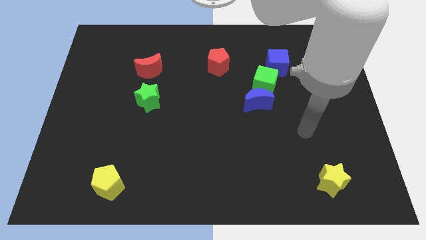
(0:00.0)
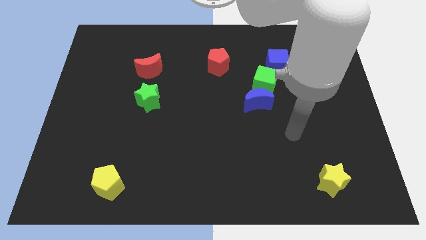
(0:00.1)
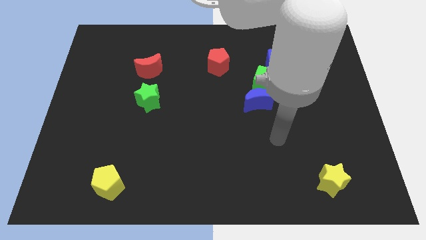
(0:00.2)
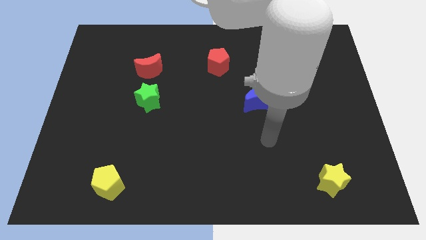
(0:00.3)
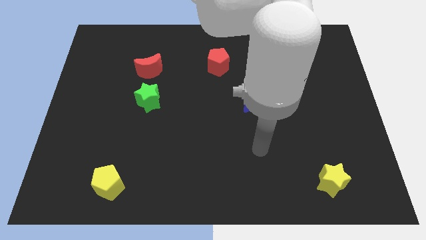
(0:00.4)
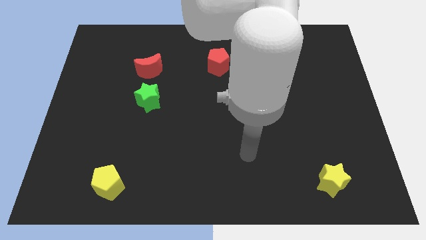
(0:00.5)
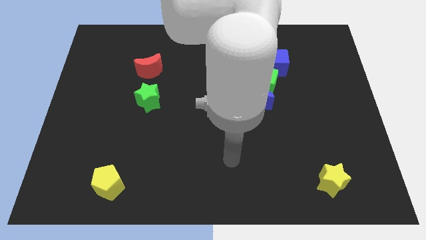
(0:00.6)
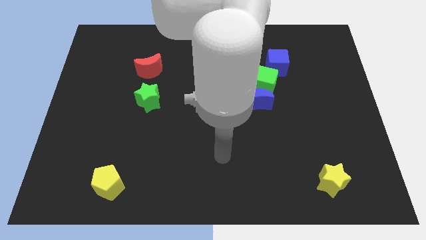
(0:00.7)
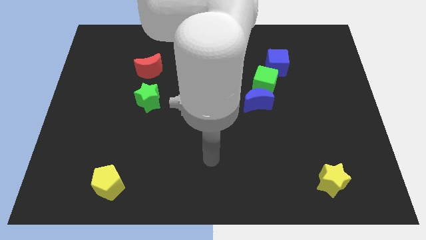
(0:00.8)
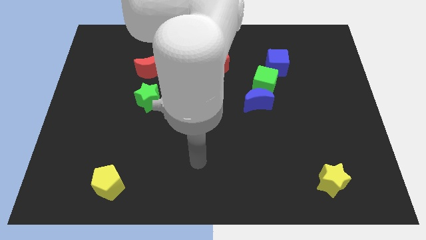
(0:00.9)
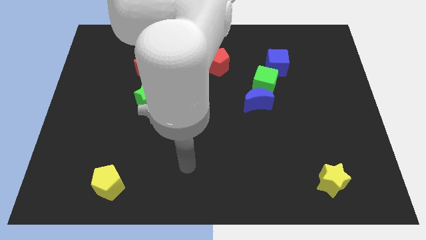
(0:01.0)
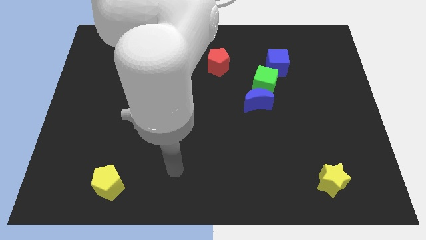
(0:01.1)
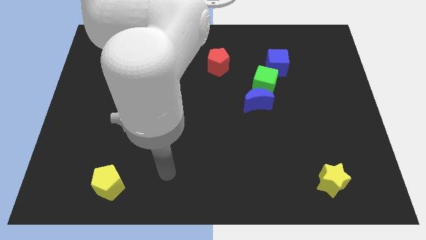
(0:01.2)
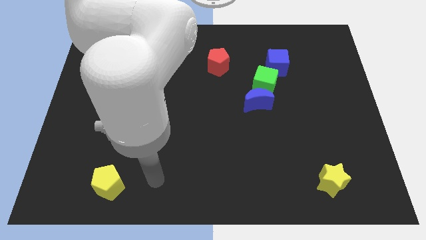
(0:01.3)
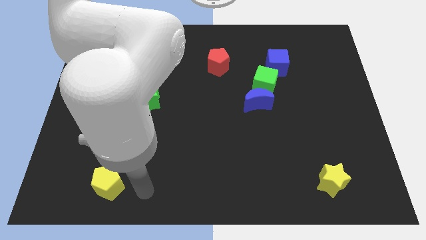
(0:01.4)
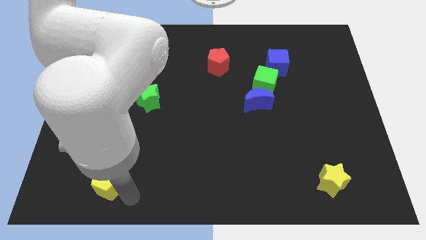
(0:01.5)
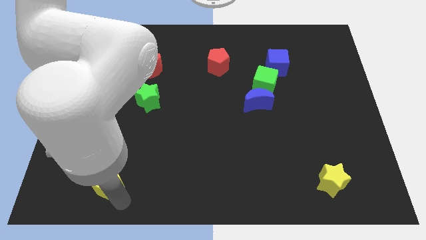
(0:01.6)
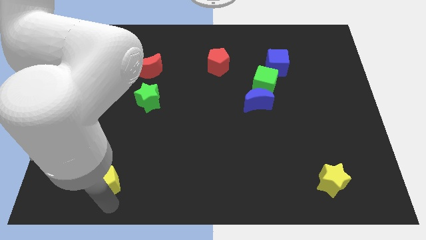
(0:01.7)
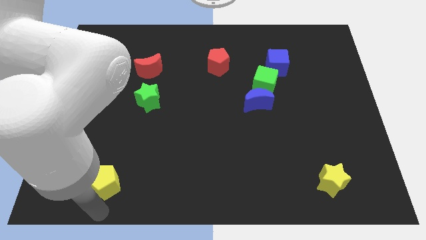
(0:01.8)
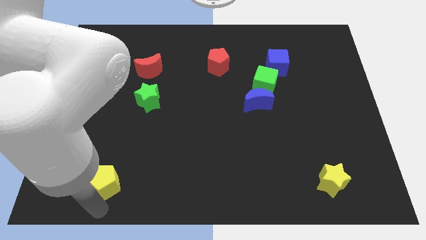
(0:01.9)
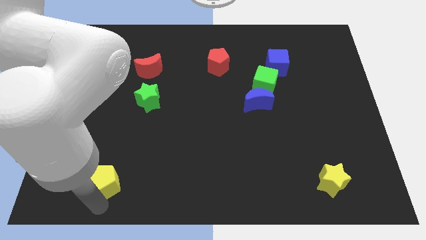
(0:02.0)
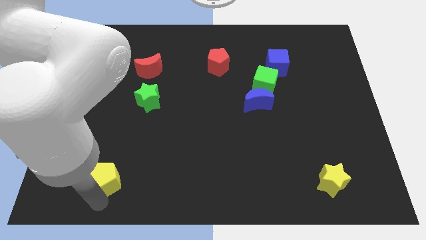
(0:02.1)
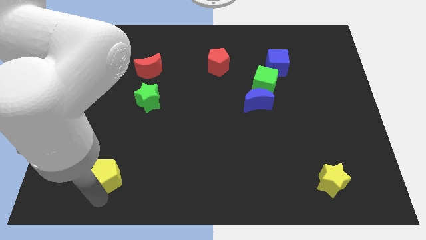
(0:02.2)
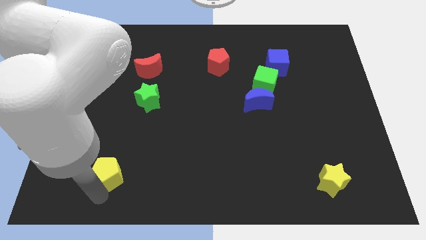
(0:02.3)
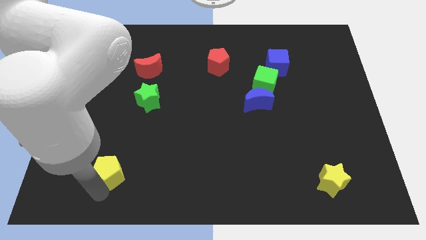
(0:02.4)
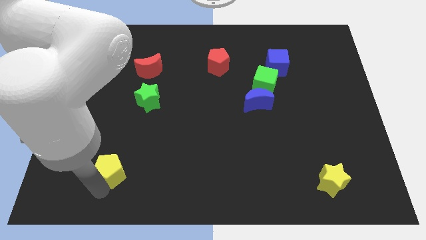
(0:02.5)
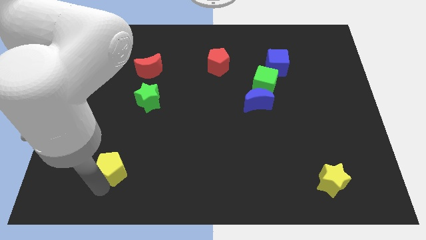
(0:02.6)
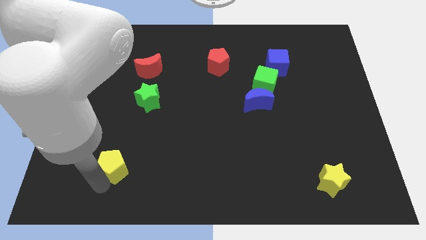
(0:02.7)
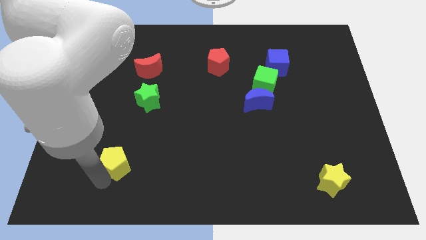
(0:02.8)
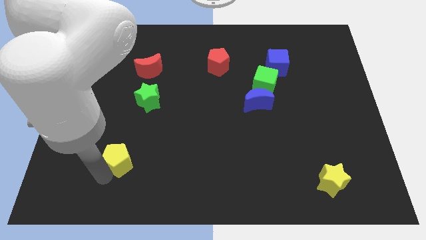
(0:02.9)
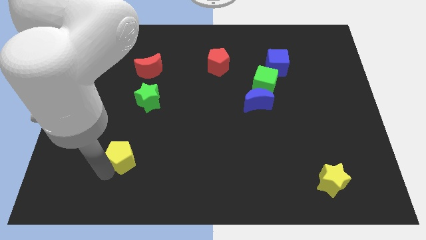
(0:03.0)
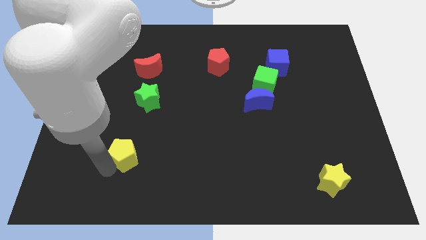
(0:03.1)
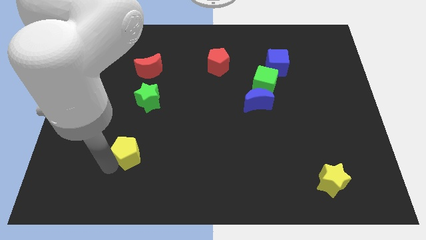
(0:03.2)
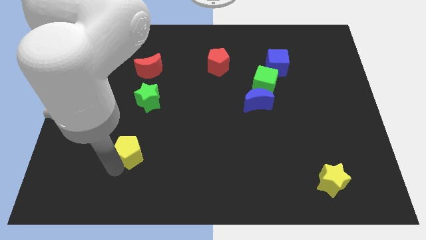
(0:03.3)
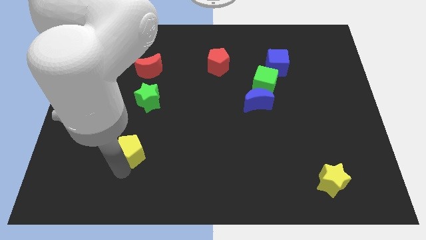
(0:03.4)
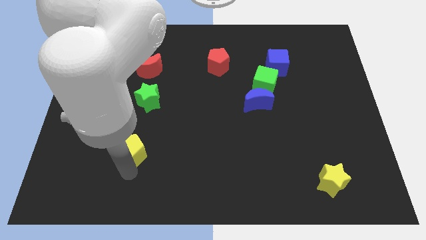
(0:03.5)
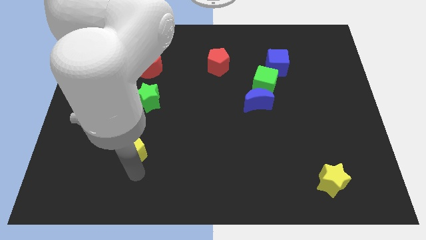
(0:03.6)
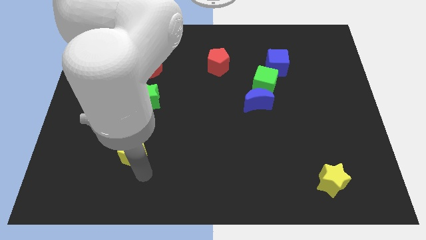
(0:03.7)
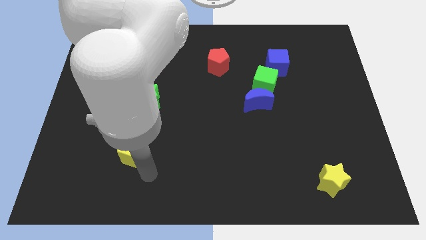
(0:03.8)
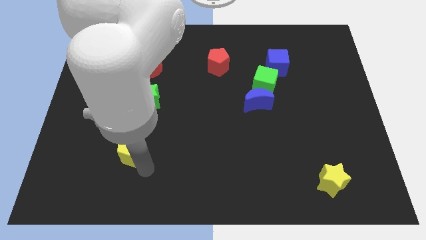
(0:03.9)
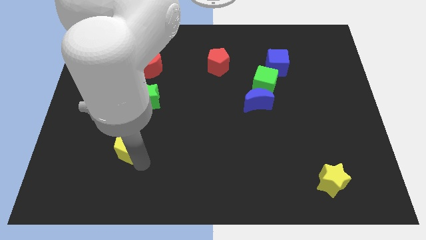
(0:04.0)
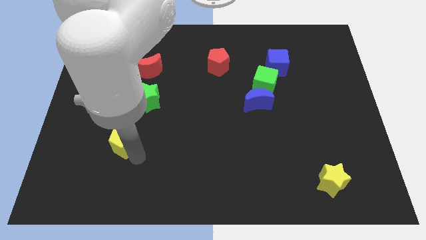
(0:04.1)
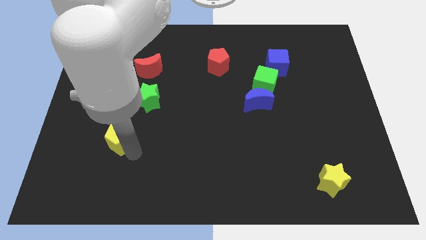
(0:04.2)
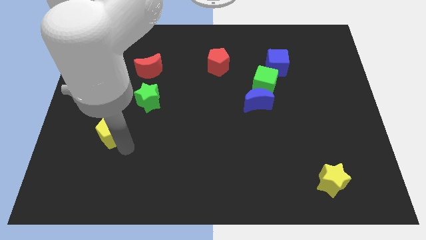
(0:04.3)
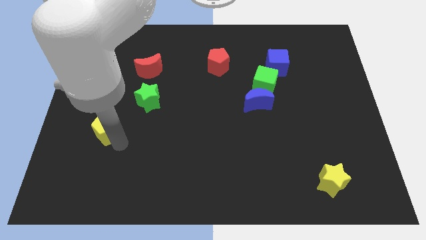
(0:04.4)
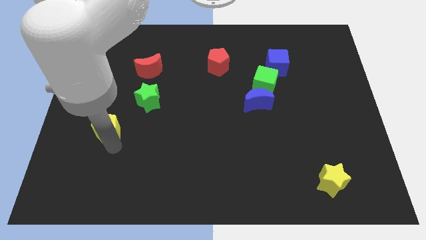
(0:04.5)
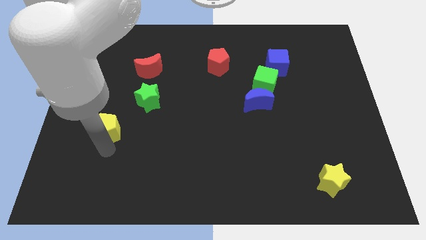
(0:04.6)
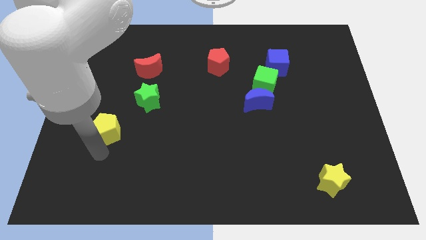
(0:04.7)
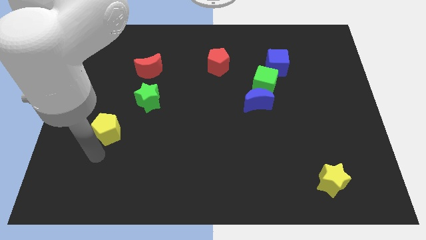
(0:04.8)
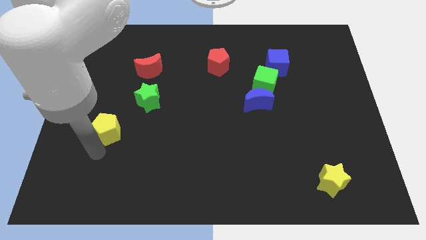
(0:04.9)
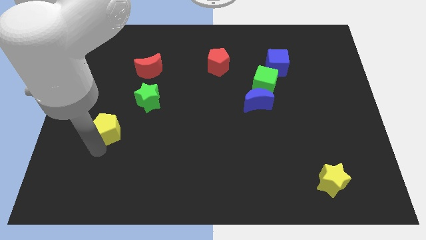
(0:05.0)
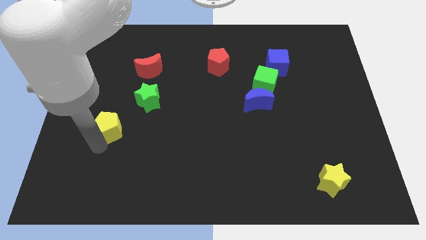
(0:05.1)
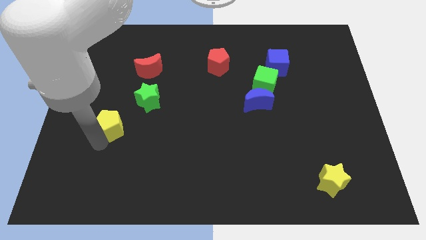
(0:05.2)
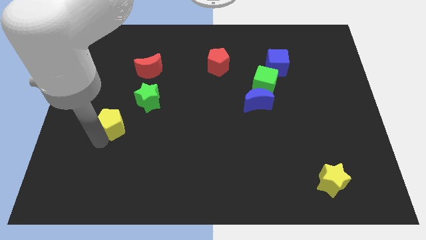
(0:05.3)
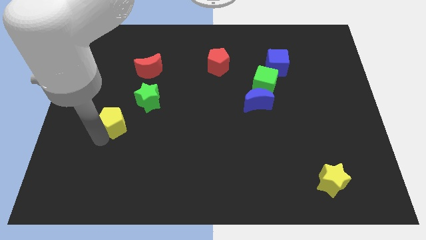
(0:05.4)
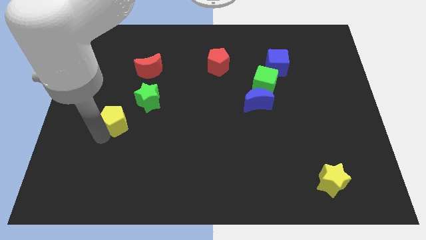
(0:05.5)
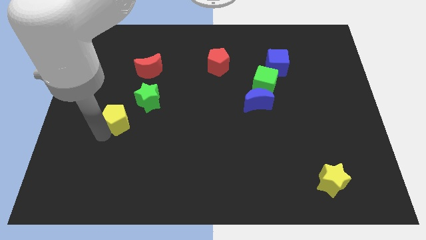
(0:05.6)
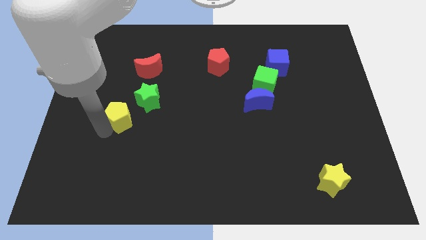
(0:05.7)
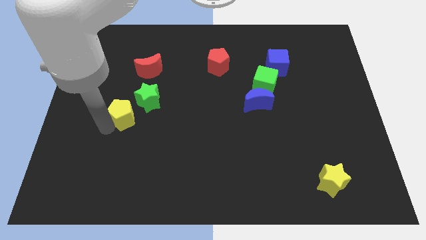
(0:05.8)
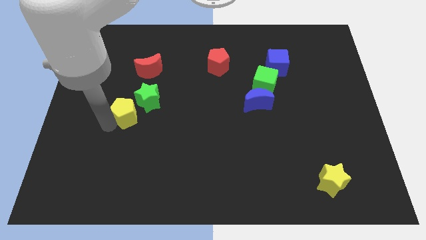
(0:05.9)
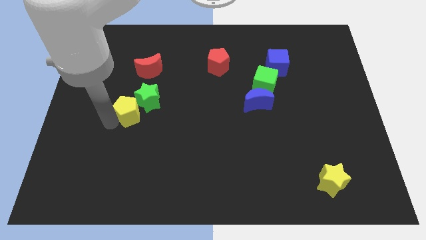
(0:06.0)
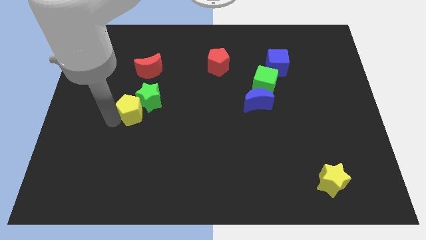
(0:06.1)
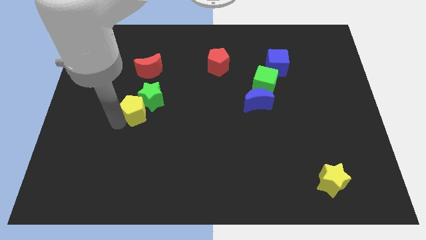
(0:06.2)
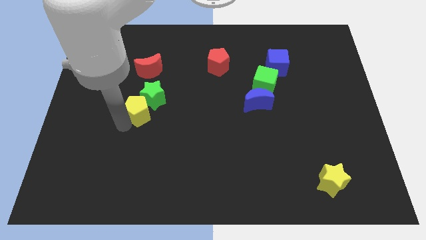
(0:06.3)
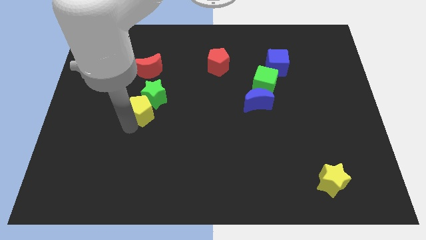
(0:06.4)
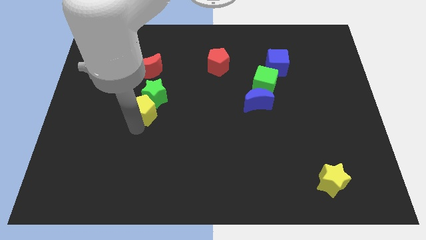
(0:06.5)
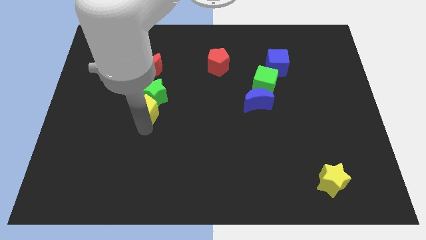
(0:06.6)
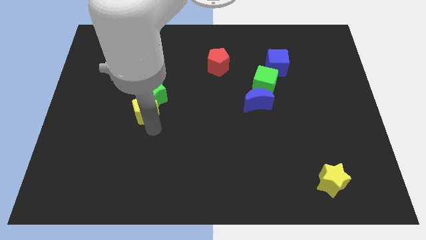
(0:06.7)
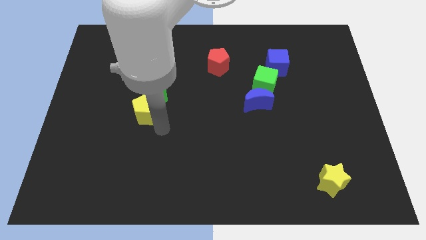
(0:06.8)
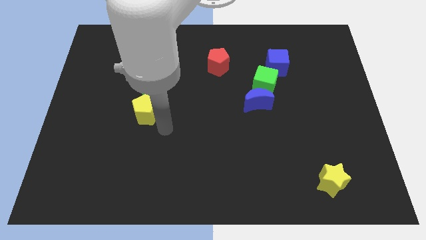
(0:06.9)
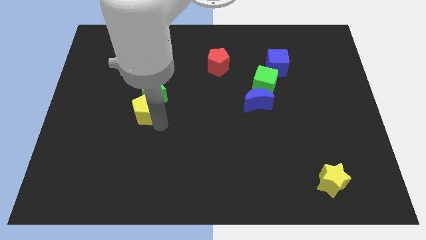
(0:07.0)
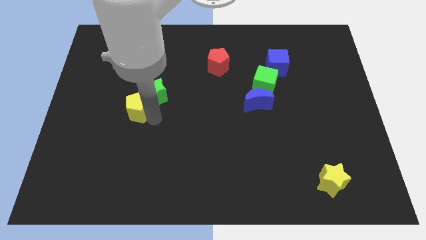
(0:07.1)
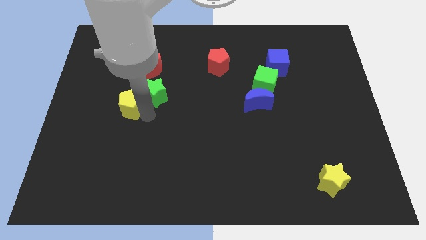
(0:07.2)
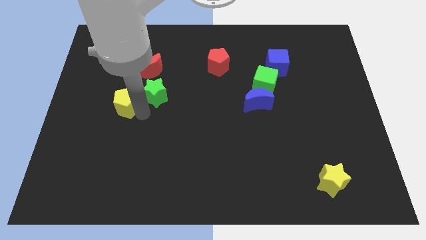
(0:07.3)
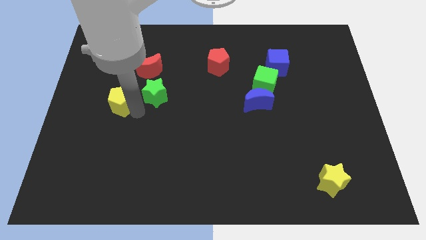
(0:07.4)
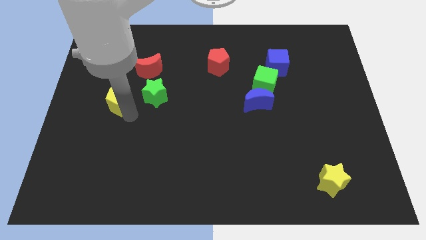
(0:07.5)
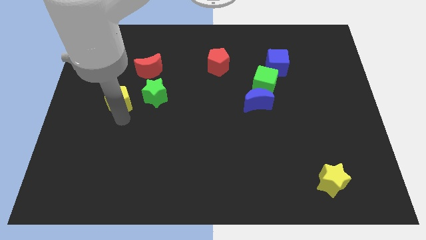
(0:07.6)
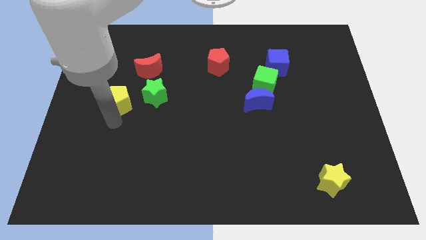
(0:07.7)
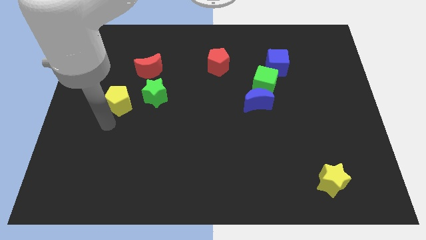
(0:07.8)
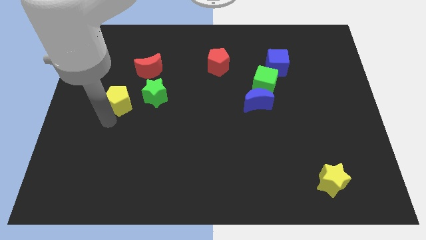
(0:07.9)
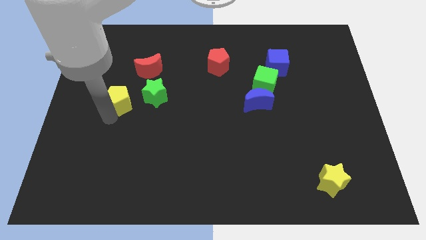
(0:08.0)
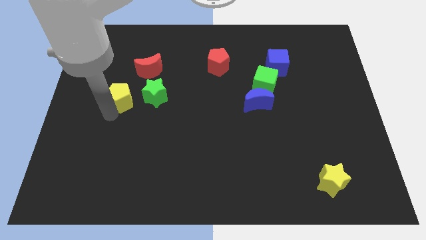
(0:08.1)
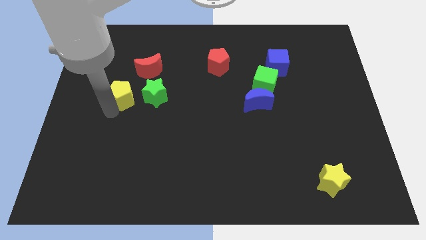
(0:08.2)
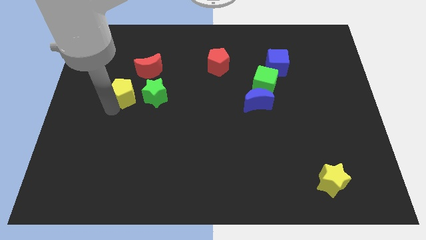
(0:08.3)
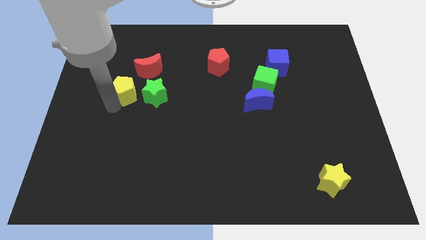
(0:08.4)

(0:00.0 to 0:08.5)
push the yellow pentagon to the top left of the green star
